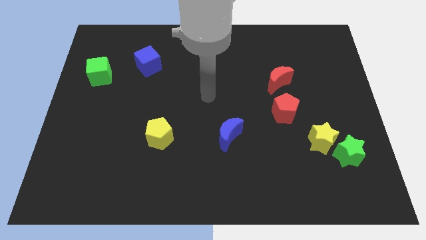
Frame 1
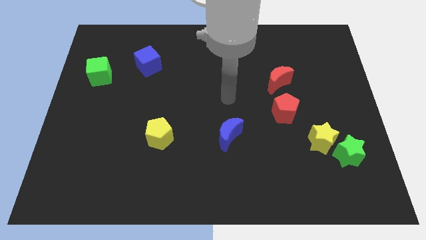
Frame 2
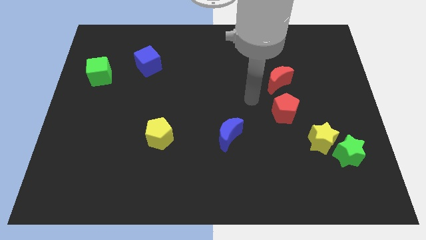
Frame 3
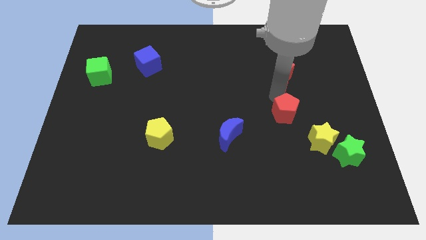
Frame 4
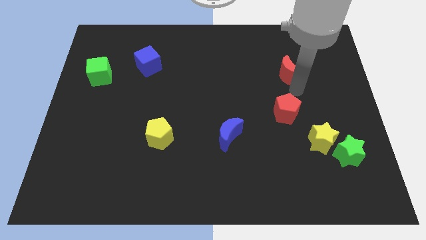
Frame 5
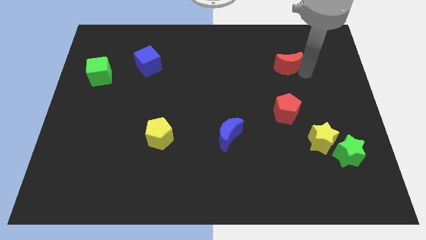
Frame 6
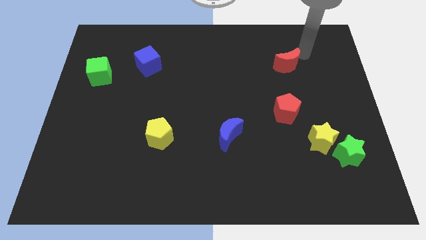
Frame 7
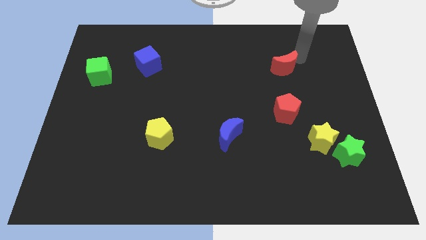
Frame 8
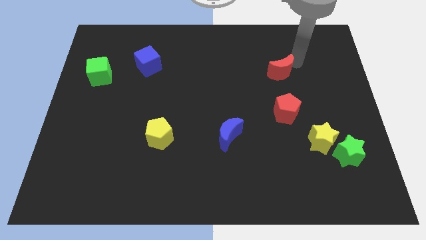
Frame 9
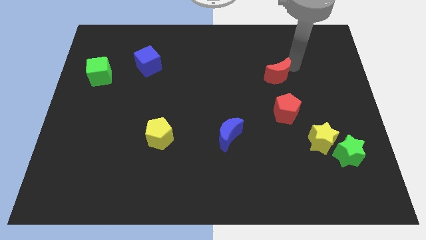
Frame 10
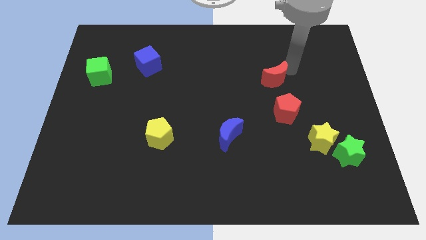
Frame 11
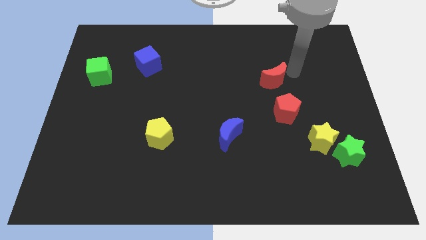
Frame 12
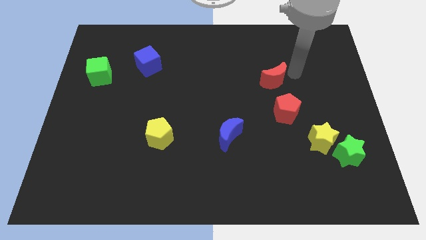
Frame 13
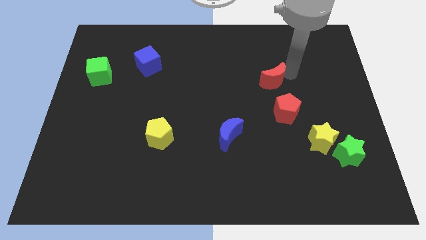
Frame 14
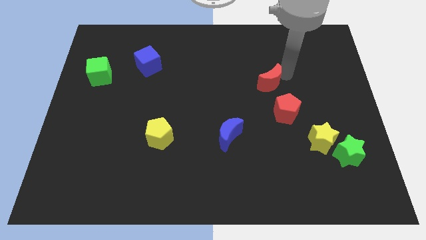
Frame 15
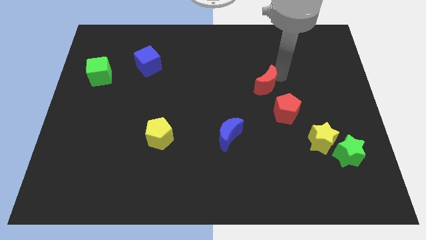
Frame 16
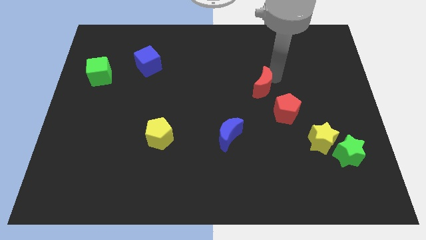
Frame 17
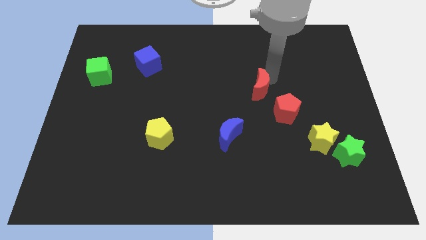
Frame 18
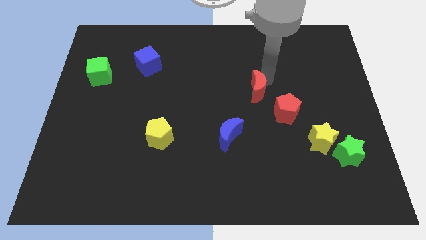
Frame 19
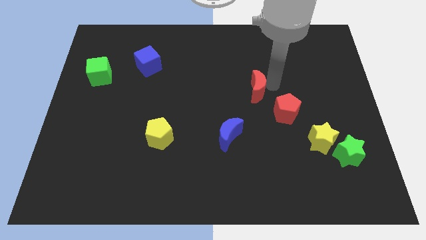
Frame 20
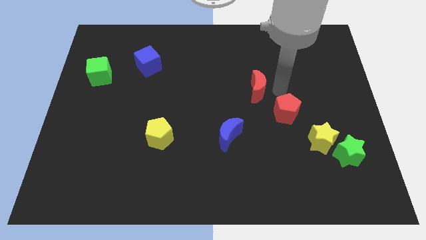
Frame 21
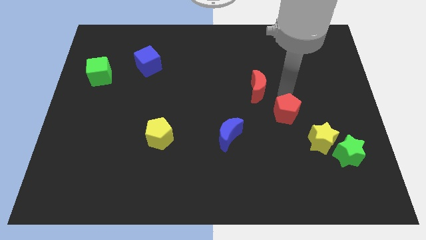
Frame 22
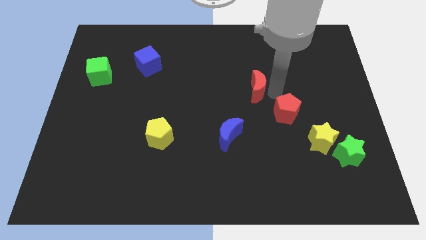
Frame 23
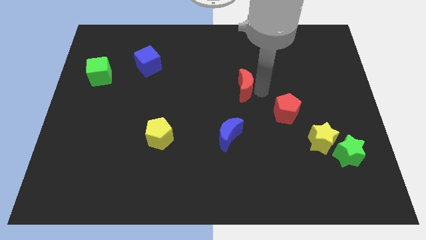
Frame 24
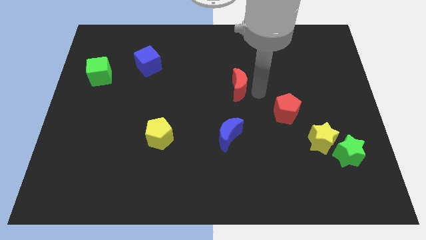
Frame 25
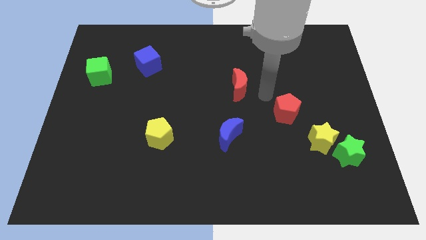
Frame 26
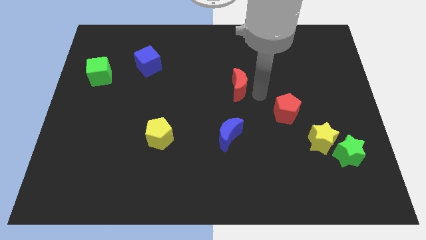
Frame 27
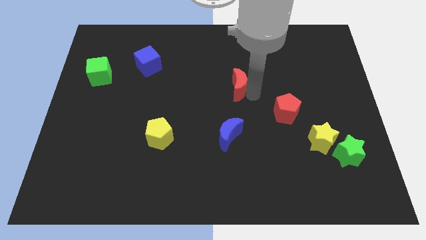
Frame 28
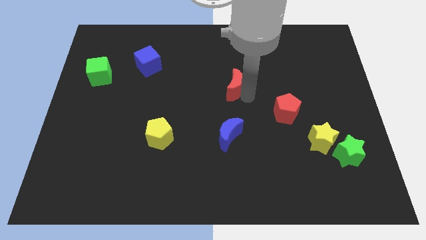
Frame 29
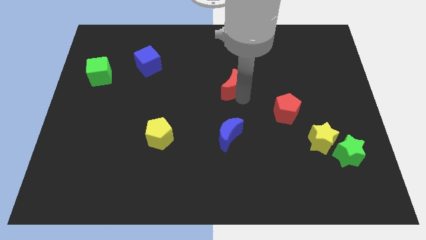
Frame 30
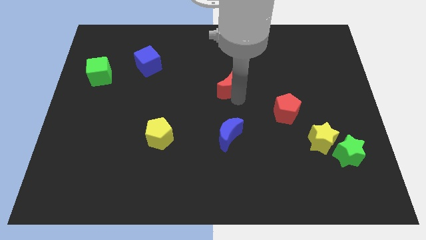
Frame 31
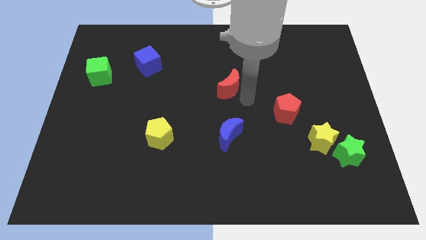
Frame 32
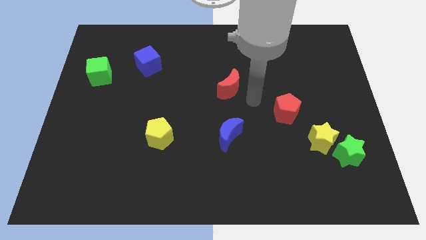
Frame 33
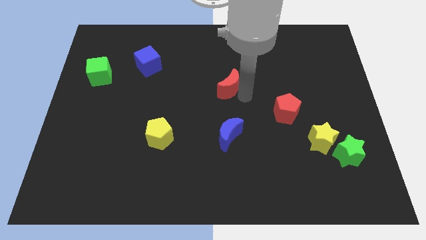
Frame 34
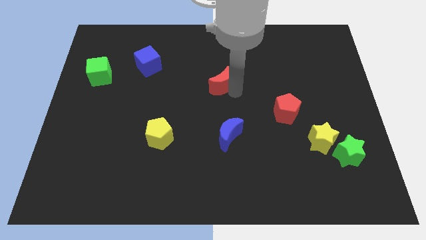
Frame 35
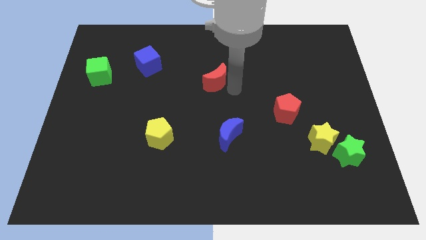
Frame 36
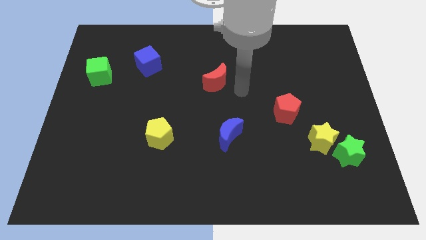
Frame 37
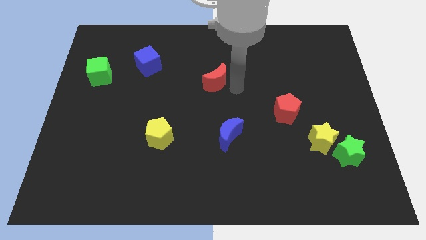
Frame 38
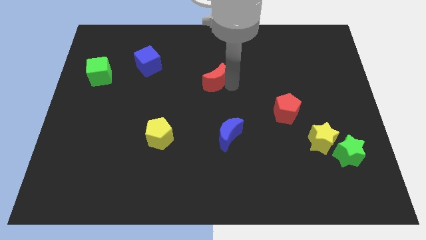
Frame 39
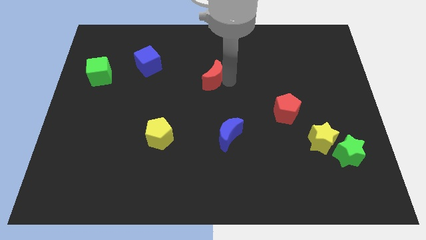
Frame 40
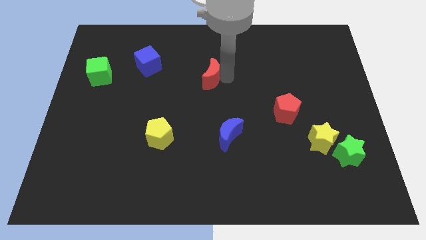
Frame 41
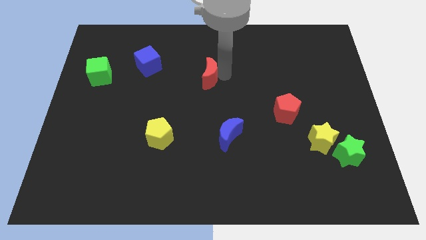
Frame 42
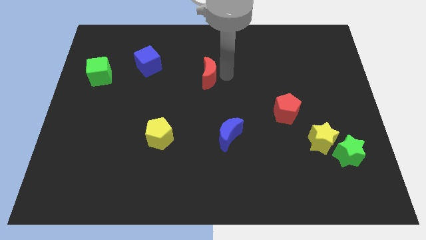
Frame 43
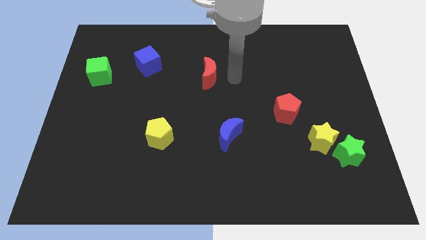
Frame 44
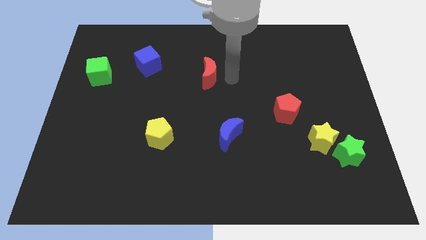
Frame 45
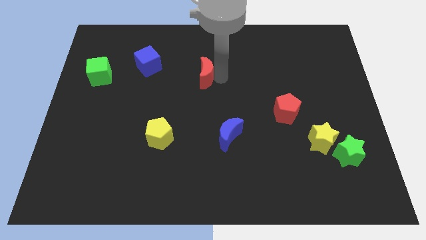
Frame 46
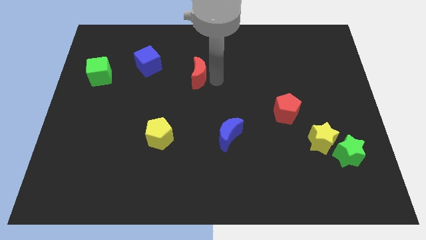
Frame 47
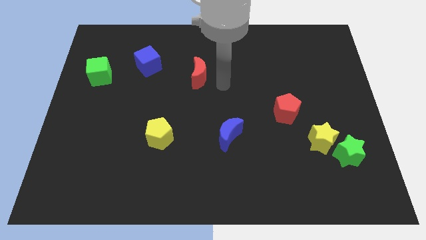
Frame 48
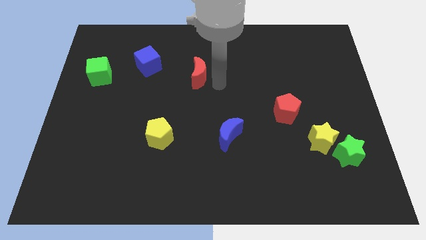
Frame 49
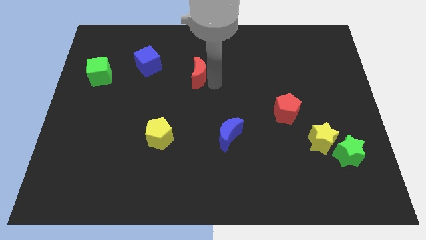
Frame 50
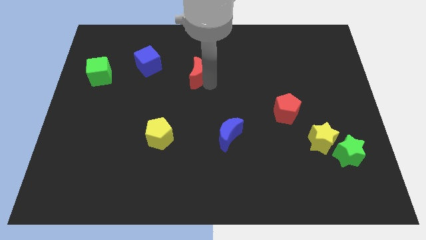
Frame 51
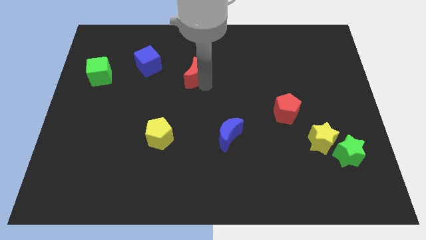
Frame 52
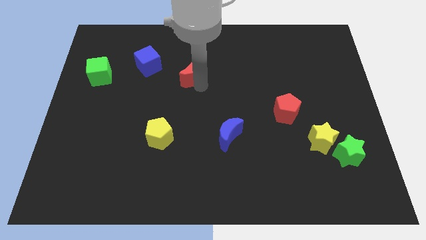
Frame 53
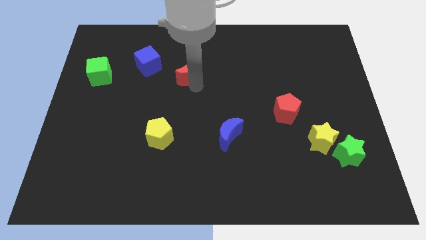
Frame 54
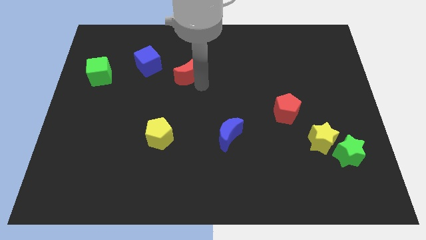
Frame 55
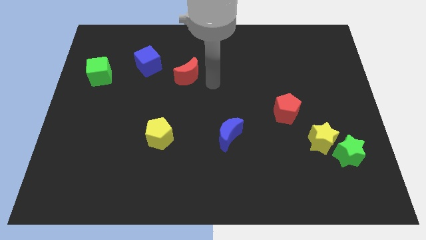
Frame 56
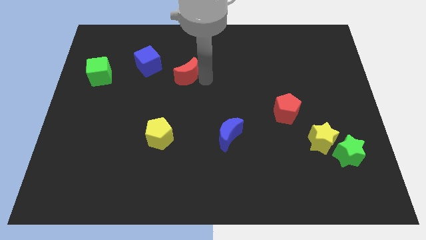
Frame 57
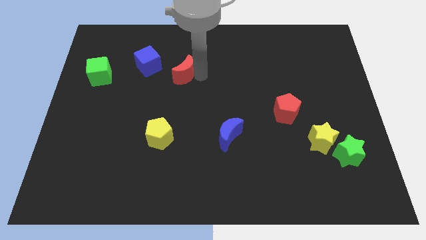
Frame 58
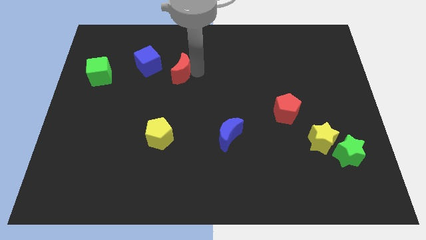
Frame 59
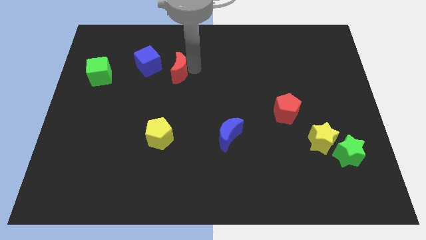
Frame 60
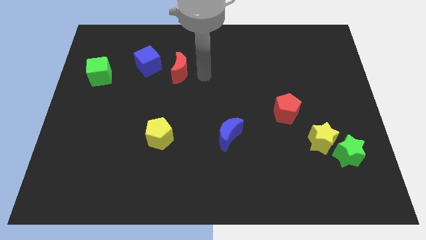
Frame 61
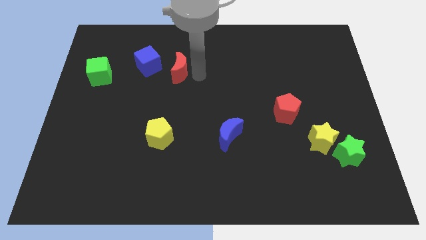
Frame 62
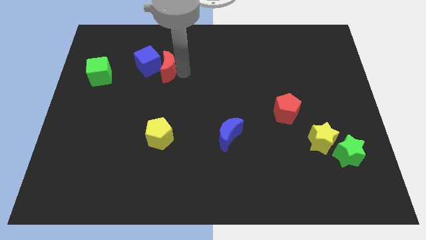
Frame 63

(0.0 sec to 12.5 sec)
slide the red moon close to the blue cube

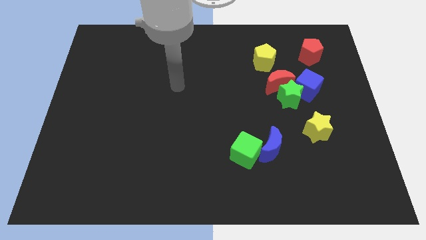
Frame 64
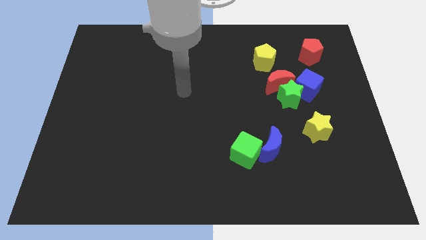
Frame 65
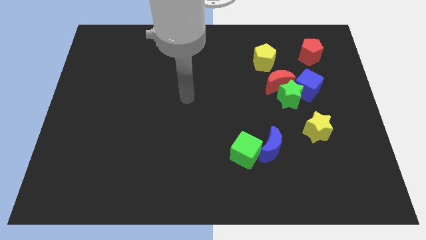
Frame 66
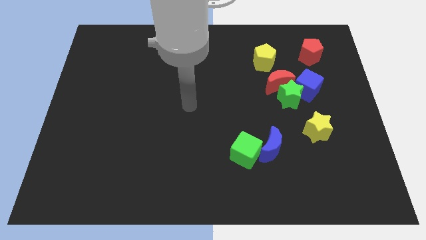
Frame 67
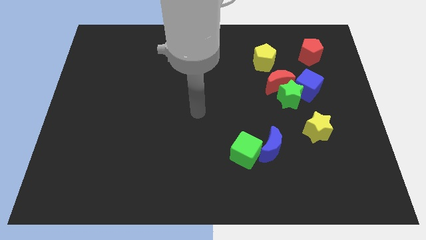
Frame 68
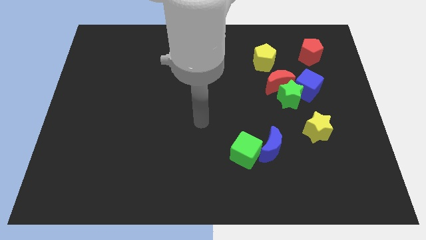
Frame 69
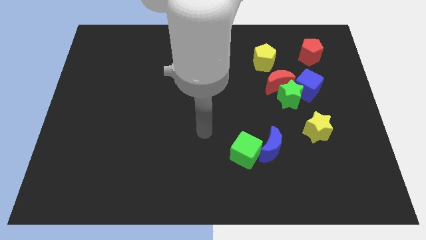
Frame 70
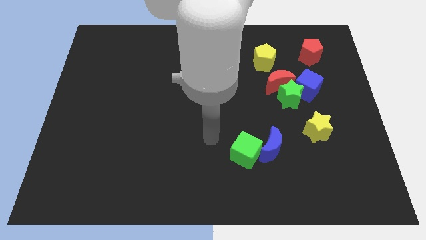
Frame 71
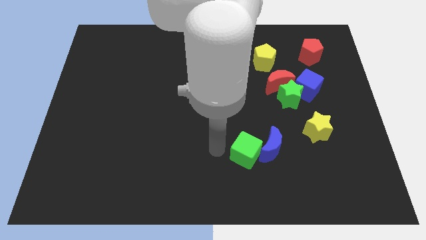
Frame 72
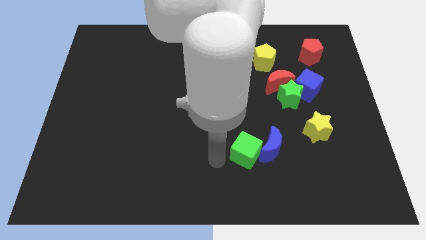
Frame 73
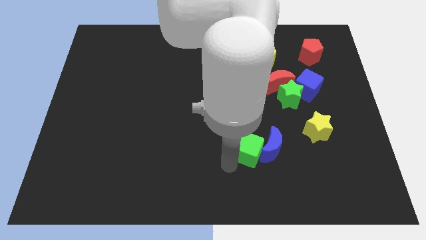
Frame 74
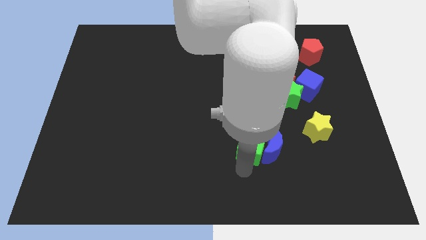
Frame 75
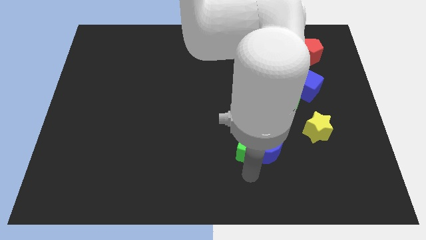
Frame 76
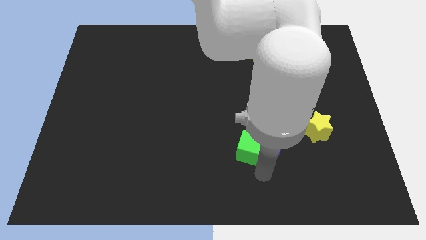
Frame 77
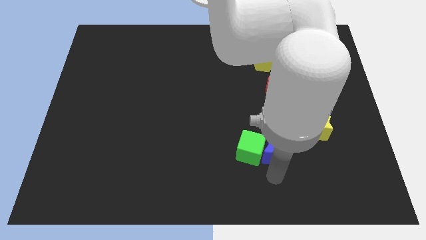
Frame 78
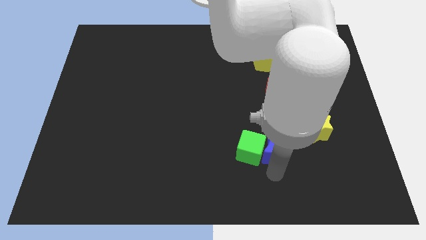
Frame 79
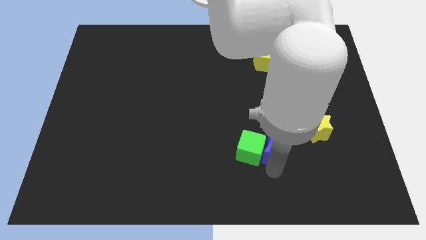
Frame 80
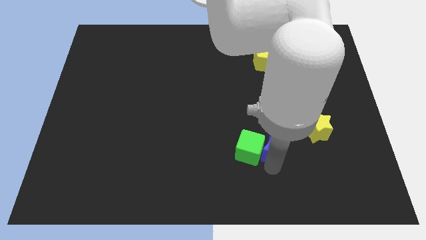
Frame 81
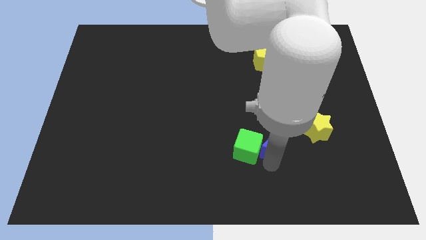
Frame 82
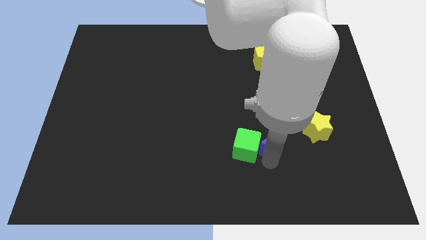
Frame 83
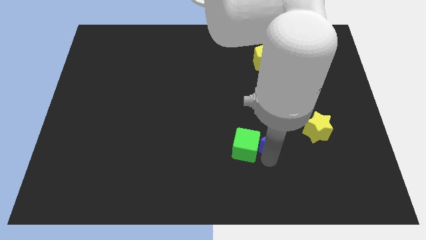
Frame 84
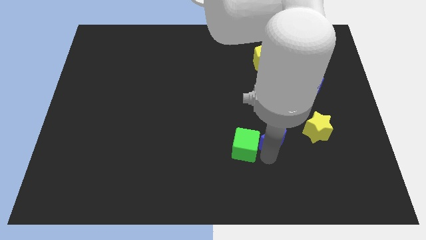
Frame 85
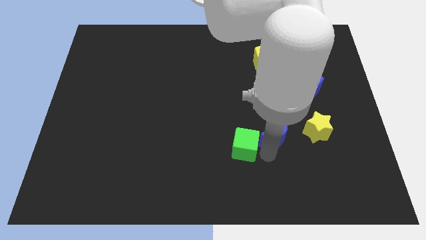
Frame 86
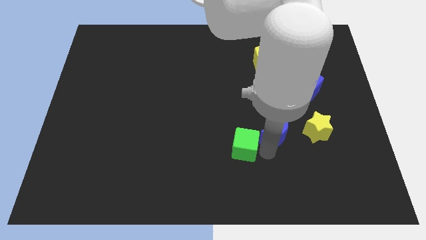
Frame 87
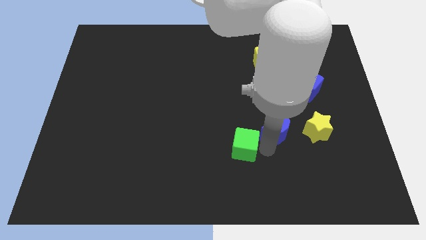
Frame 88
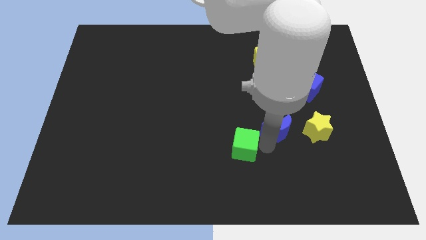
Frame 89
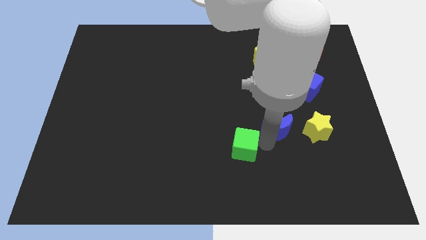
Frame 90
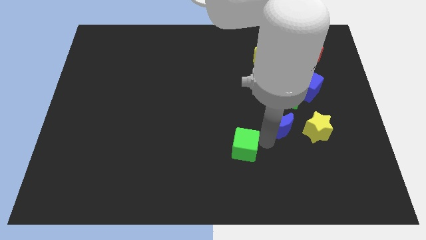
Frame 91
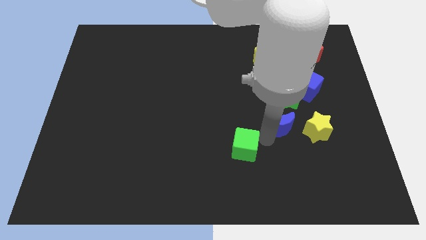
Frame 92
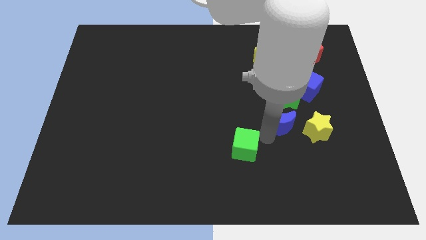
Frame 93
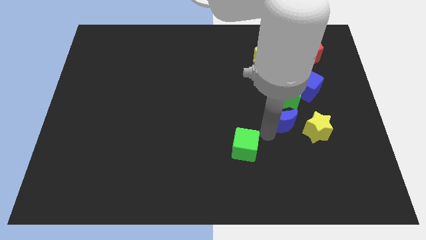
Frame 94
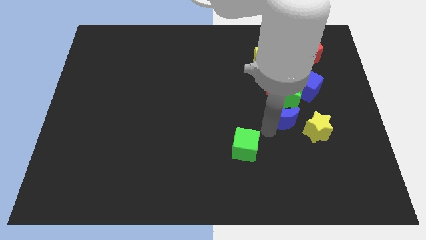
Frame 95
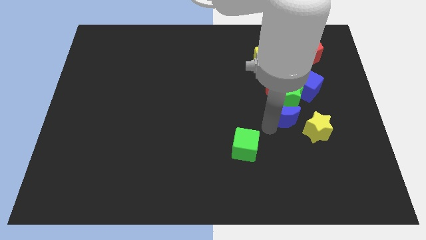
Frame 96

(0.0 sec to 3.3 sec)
push the blue moon towards the green star
